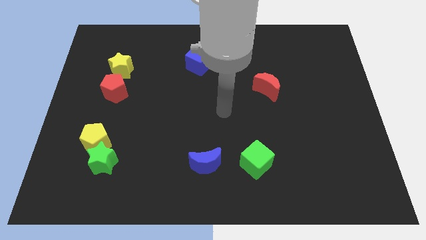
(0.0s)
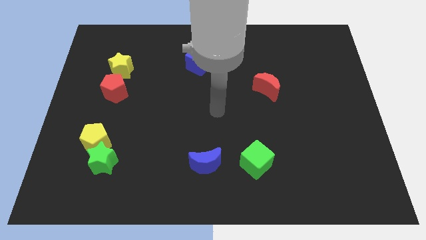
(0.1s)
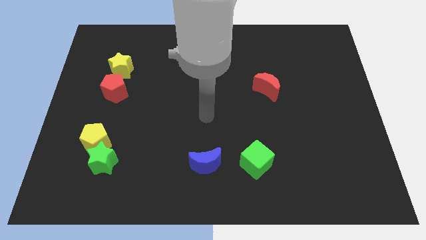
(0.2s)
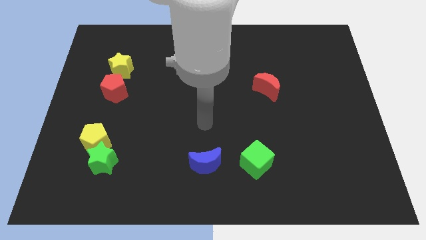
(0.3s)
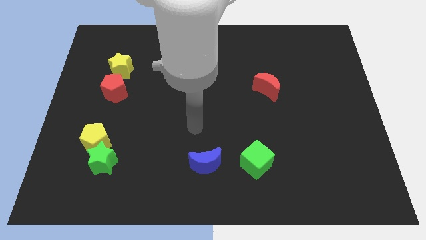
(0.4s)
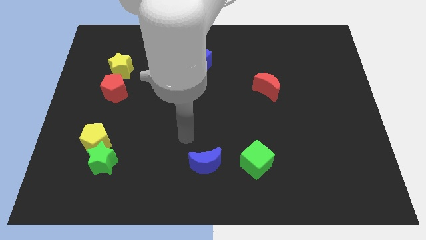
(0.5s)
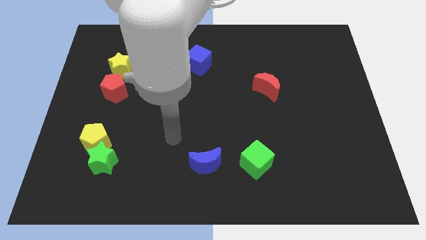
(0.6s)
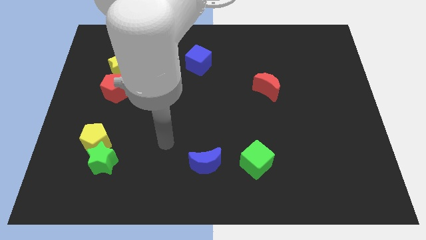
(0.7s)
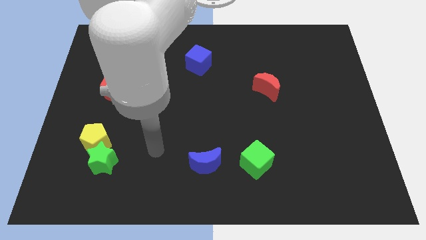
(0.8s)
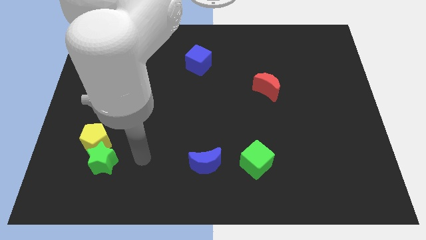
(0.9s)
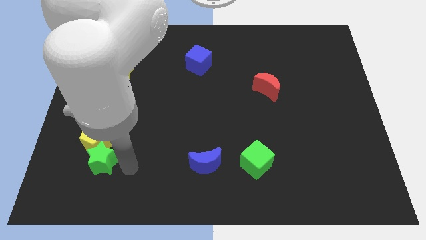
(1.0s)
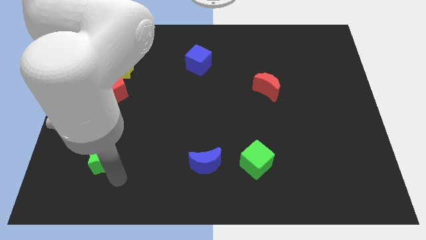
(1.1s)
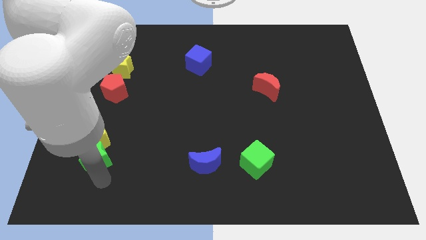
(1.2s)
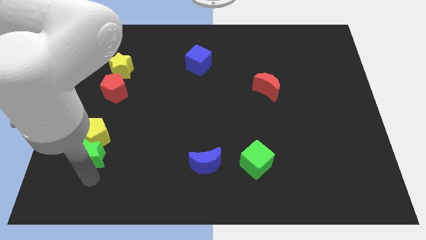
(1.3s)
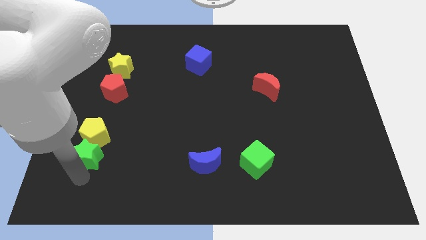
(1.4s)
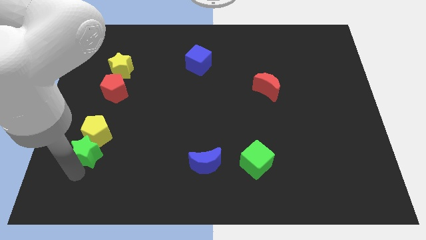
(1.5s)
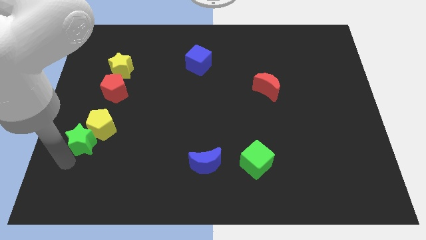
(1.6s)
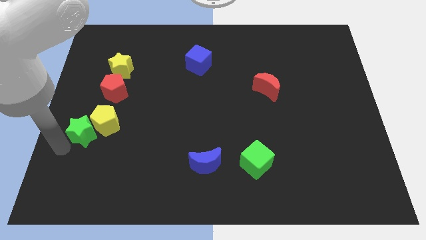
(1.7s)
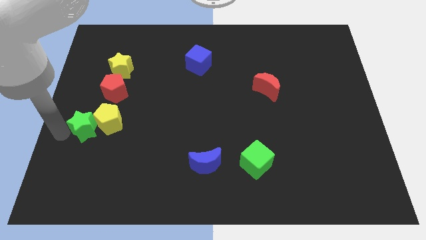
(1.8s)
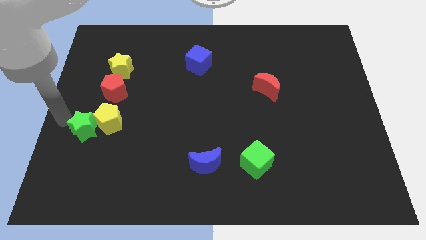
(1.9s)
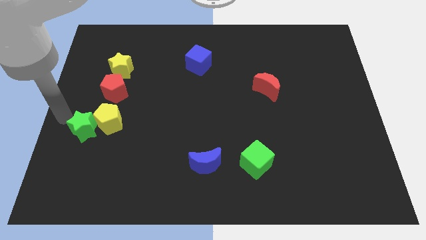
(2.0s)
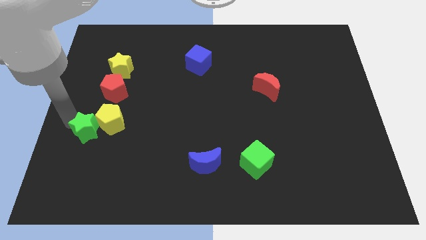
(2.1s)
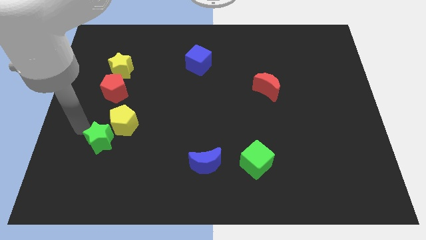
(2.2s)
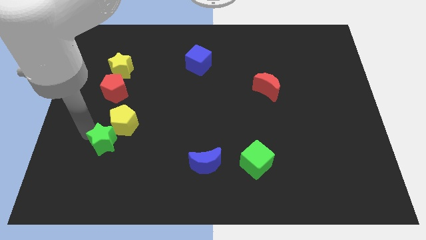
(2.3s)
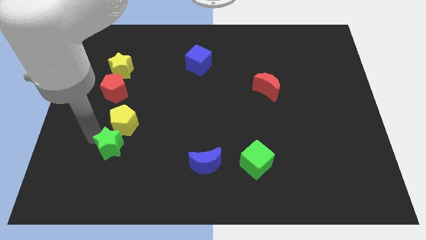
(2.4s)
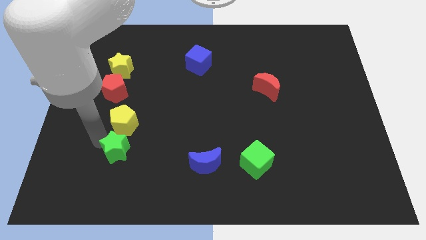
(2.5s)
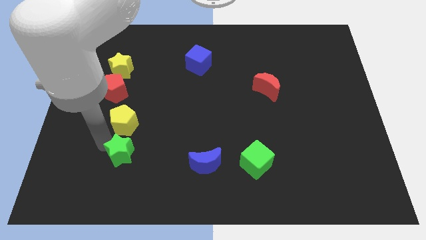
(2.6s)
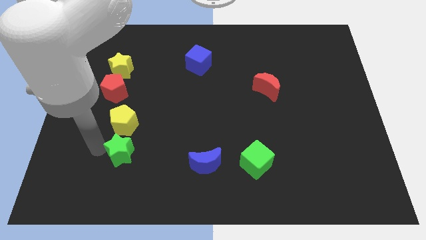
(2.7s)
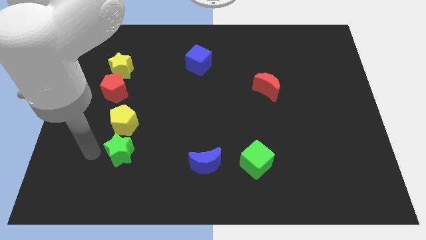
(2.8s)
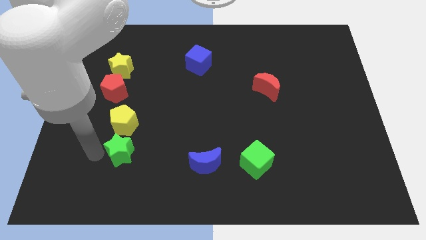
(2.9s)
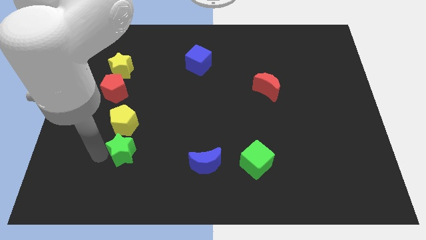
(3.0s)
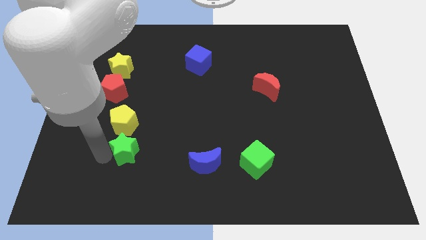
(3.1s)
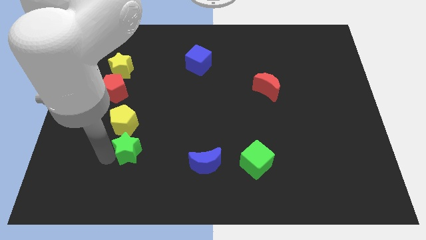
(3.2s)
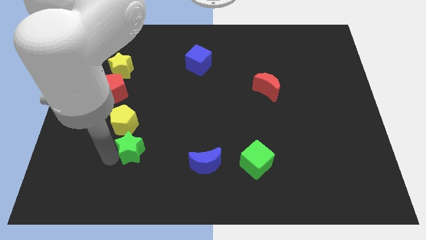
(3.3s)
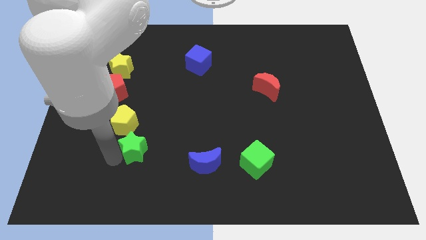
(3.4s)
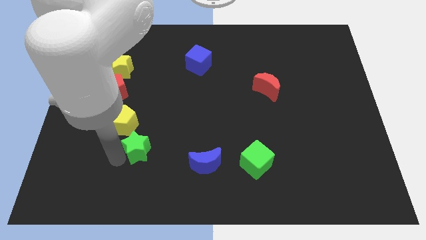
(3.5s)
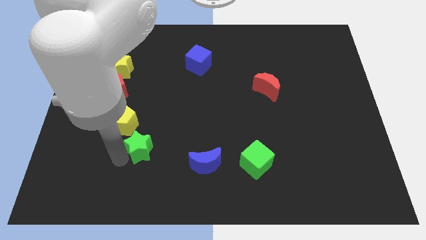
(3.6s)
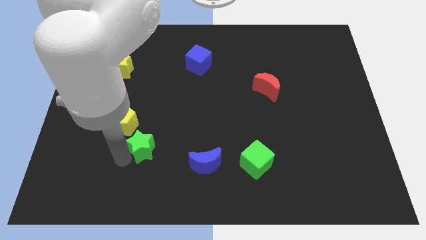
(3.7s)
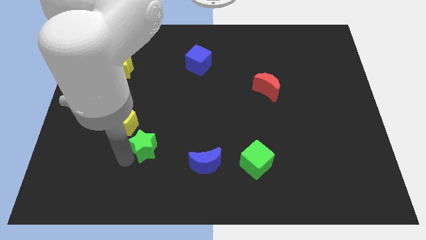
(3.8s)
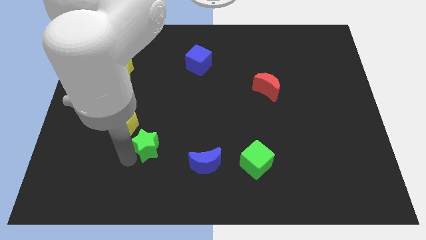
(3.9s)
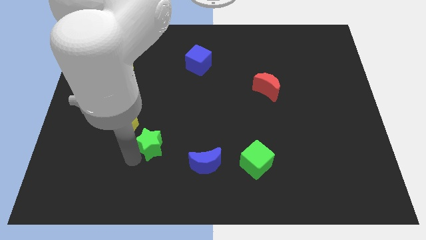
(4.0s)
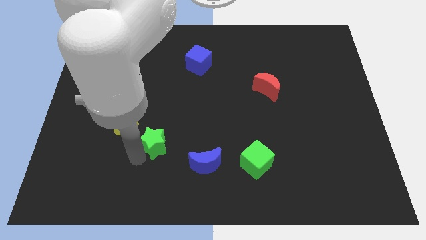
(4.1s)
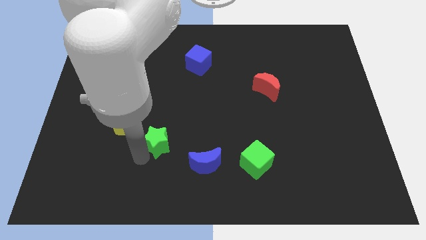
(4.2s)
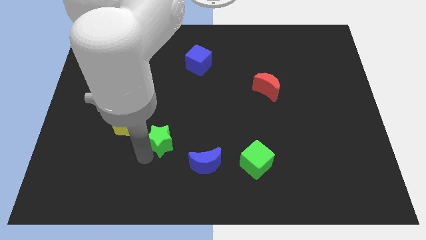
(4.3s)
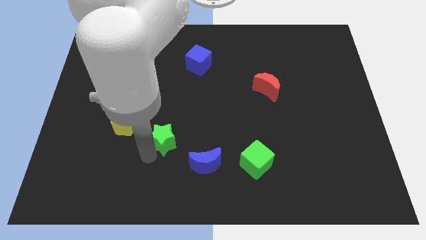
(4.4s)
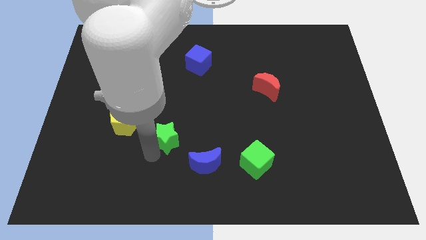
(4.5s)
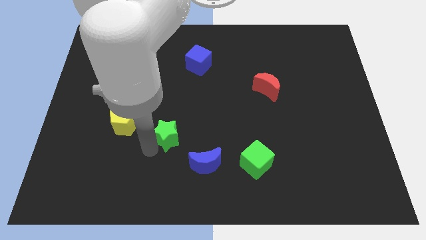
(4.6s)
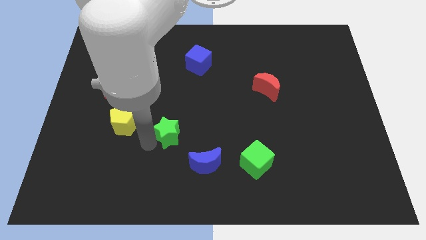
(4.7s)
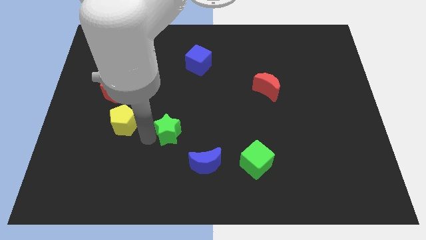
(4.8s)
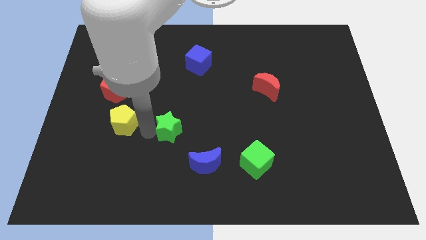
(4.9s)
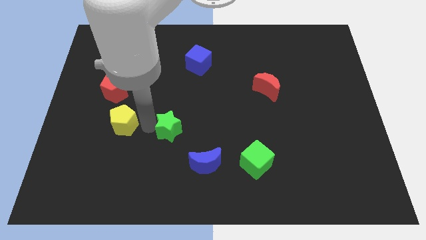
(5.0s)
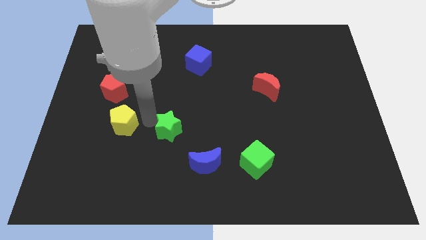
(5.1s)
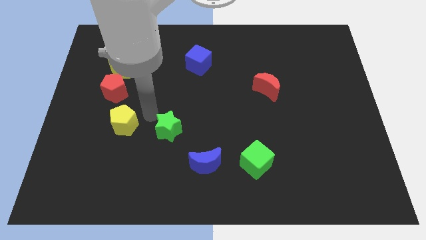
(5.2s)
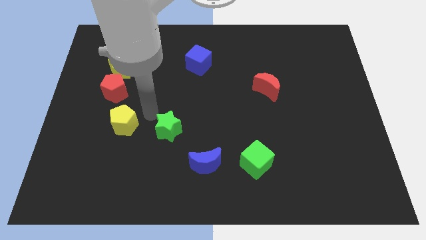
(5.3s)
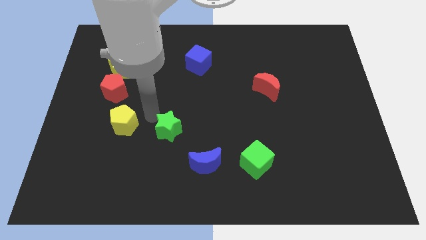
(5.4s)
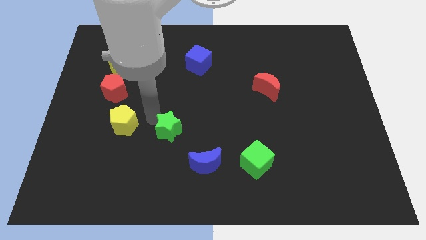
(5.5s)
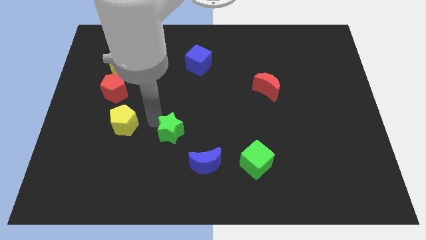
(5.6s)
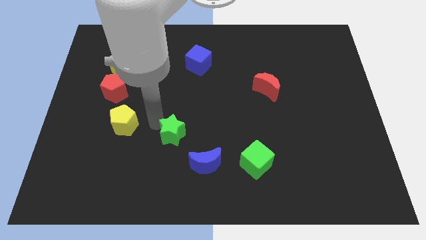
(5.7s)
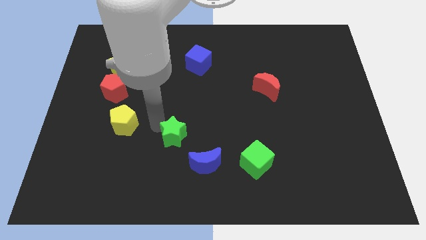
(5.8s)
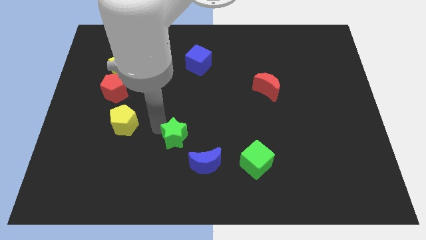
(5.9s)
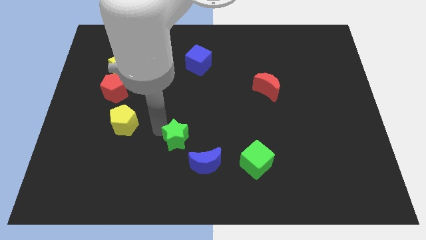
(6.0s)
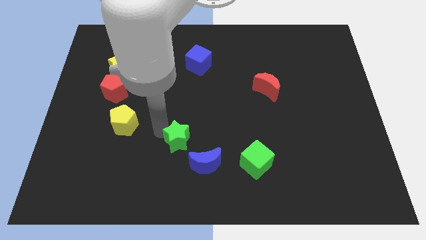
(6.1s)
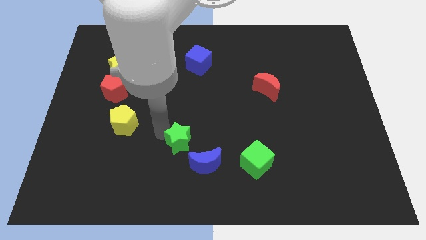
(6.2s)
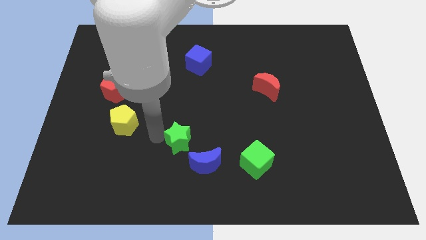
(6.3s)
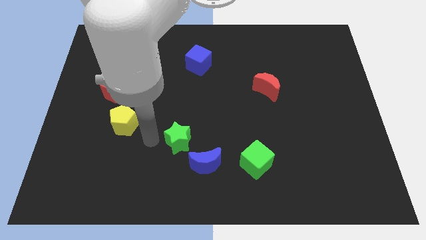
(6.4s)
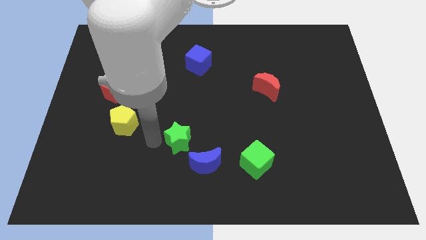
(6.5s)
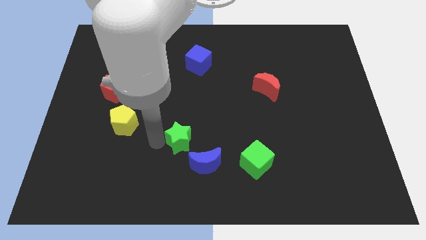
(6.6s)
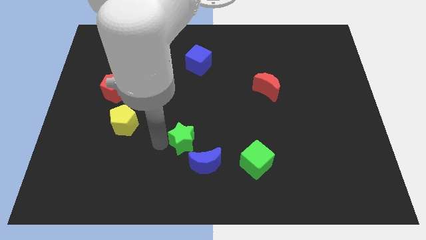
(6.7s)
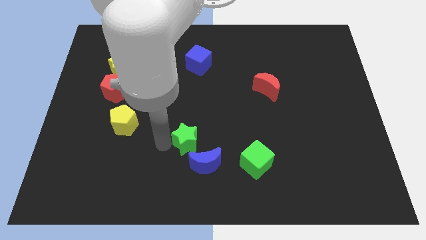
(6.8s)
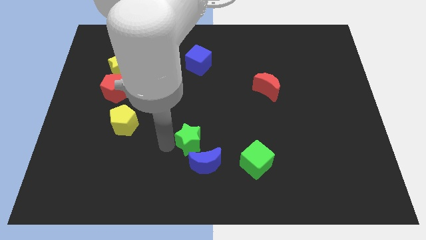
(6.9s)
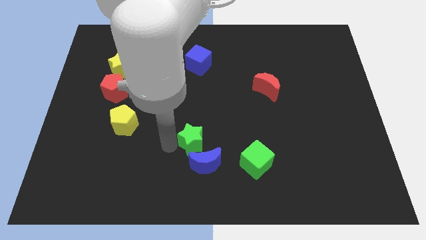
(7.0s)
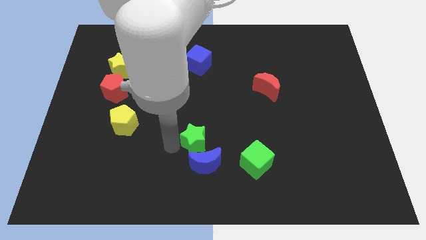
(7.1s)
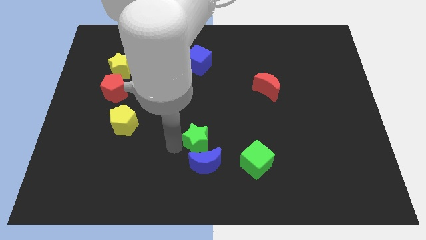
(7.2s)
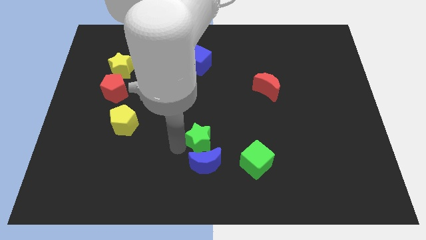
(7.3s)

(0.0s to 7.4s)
push the green star to the top right of the blue moon
